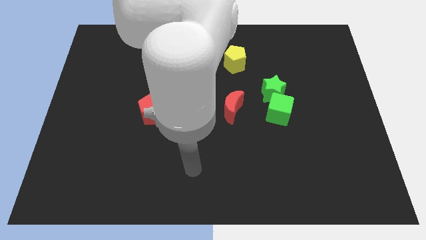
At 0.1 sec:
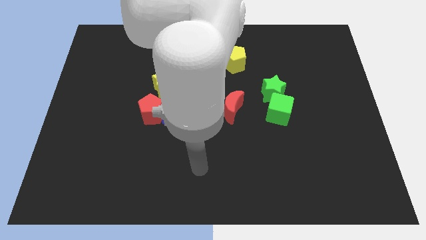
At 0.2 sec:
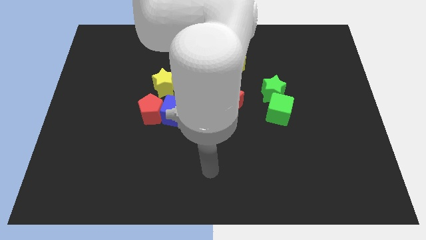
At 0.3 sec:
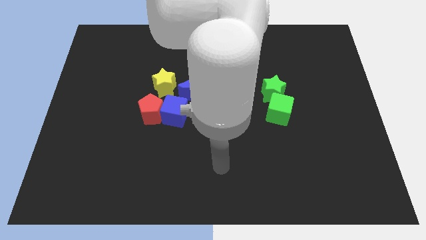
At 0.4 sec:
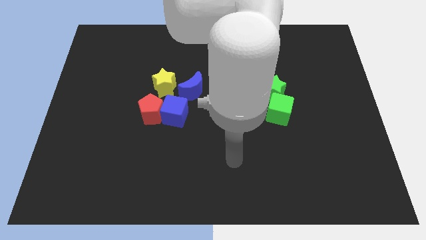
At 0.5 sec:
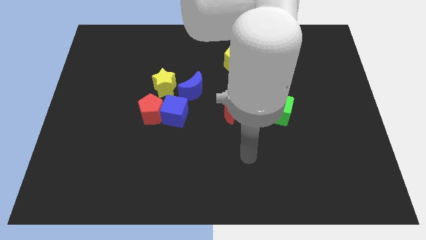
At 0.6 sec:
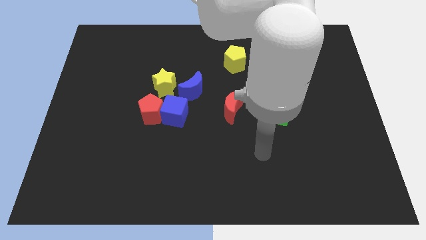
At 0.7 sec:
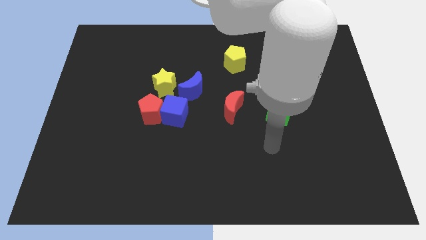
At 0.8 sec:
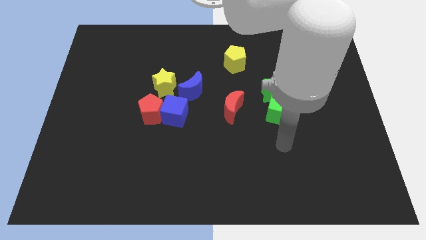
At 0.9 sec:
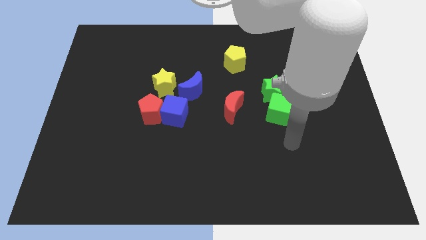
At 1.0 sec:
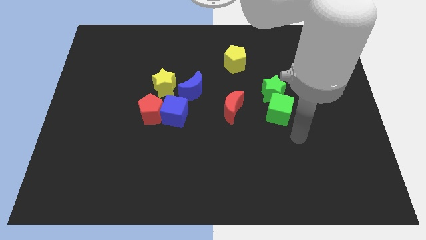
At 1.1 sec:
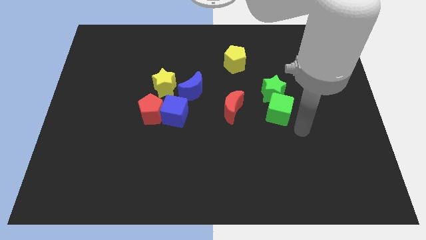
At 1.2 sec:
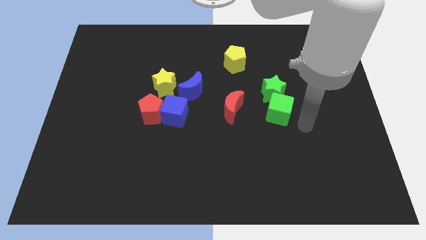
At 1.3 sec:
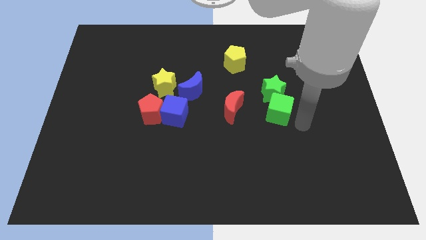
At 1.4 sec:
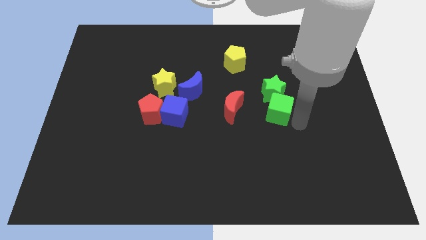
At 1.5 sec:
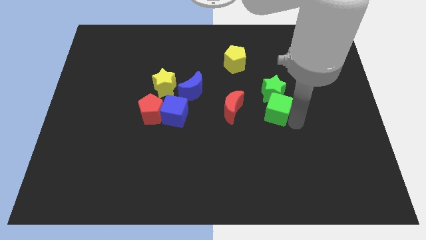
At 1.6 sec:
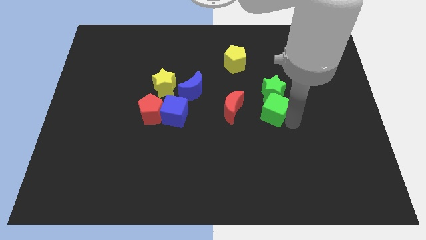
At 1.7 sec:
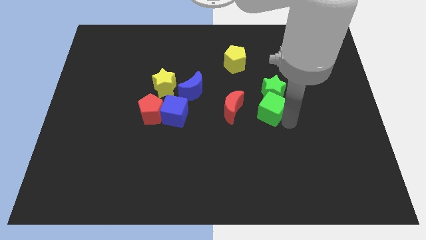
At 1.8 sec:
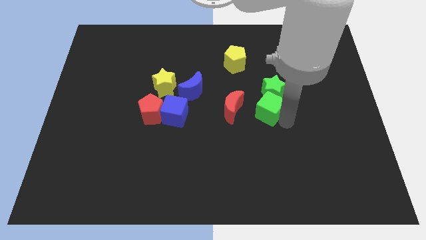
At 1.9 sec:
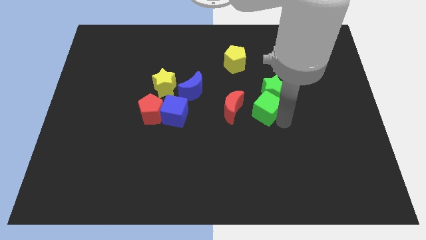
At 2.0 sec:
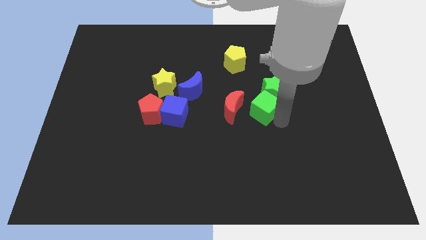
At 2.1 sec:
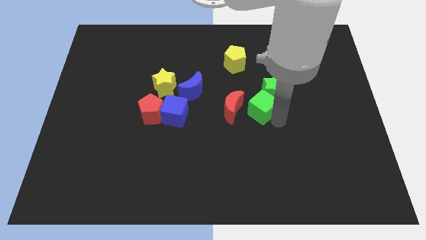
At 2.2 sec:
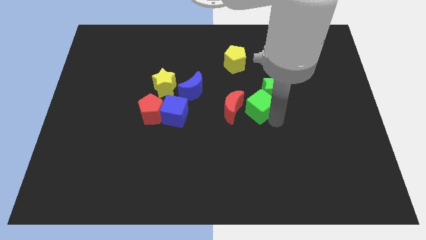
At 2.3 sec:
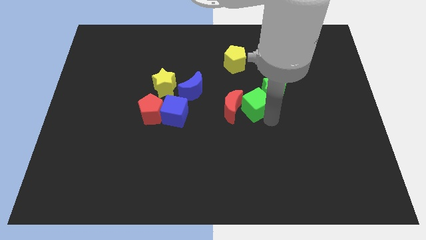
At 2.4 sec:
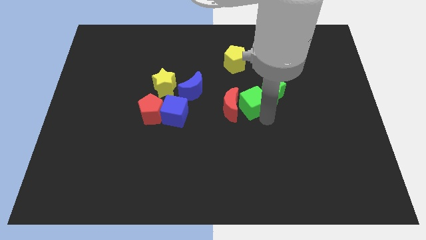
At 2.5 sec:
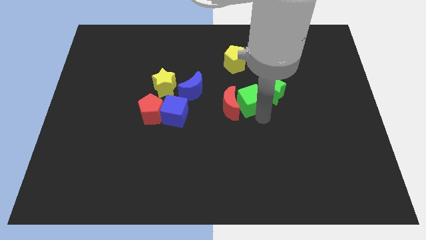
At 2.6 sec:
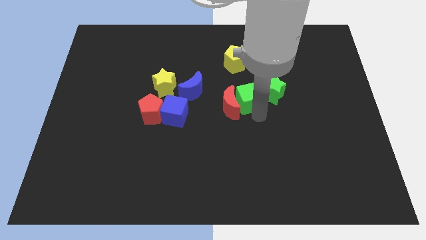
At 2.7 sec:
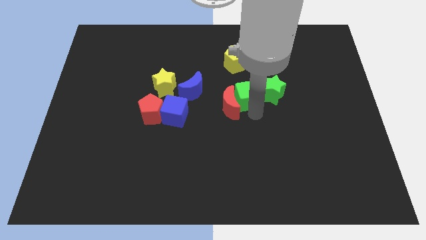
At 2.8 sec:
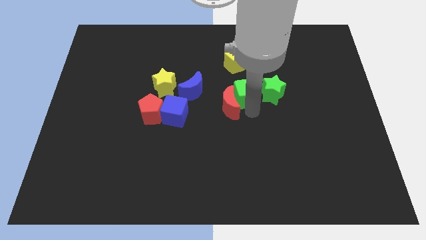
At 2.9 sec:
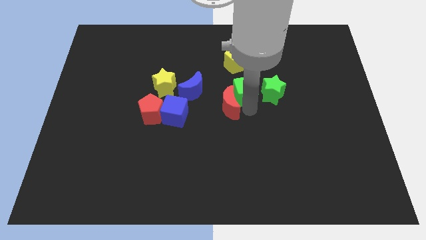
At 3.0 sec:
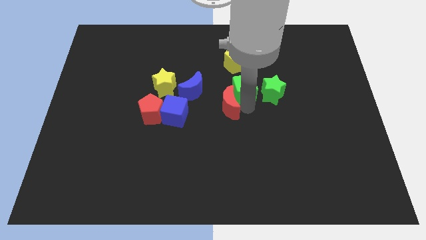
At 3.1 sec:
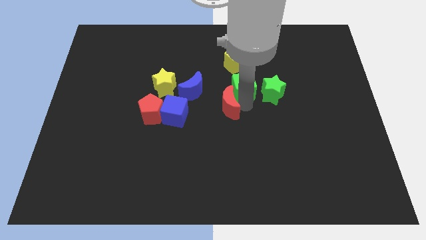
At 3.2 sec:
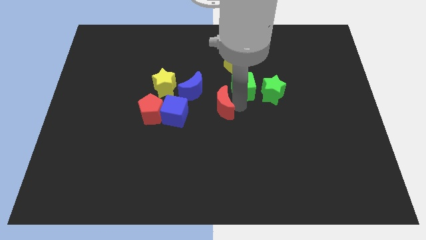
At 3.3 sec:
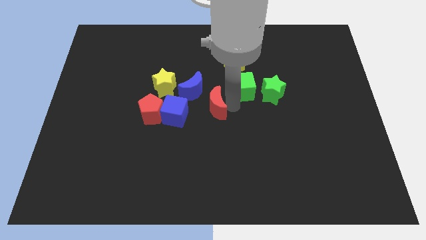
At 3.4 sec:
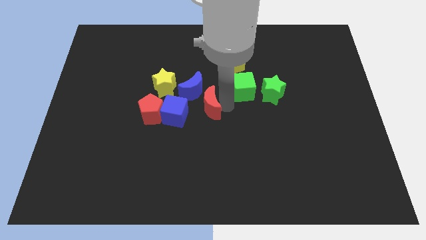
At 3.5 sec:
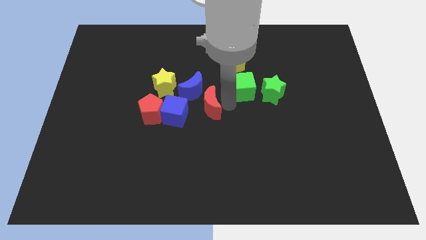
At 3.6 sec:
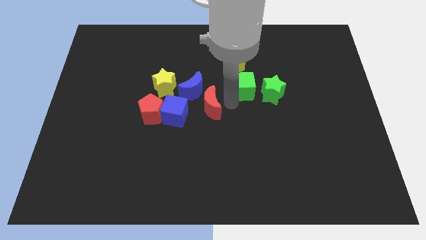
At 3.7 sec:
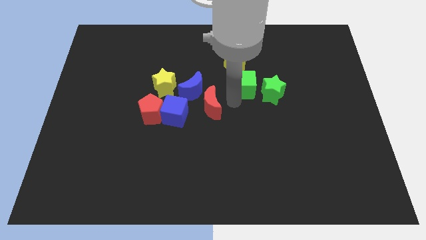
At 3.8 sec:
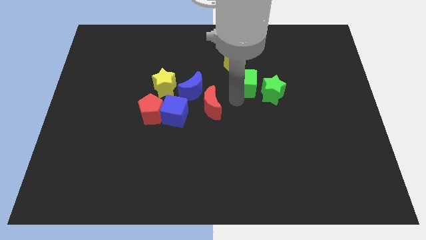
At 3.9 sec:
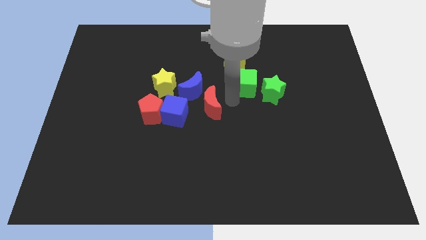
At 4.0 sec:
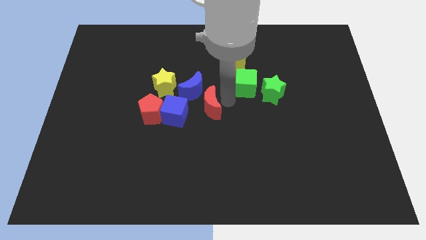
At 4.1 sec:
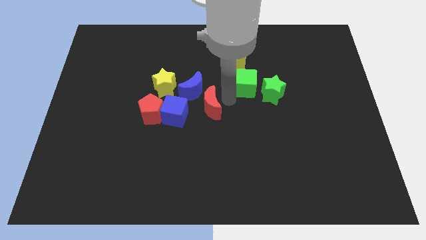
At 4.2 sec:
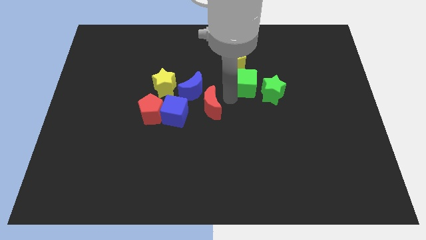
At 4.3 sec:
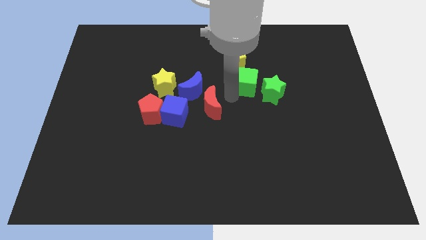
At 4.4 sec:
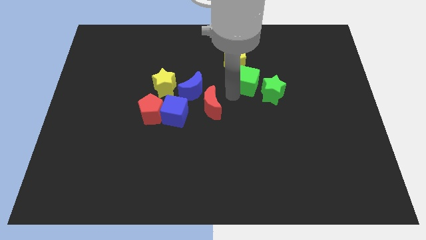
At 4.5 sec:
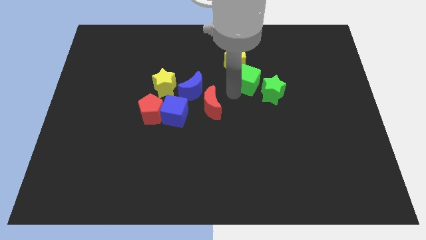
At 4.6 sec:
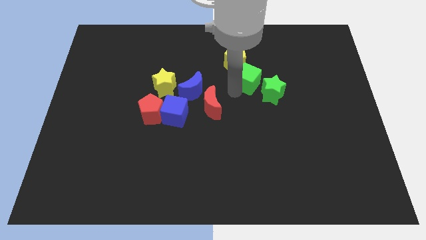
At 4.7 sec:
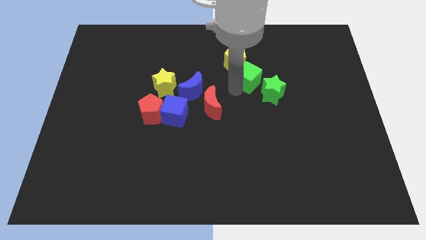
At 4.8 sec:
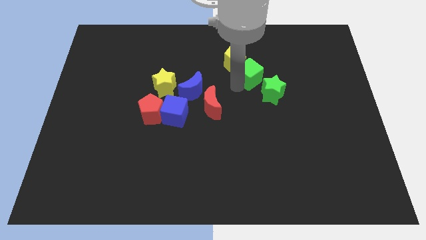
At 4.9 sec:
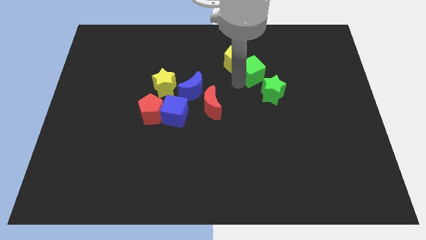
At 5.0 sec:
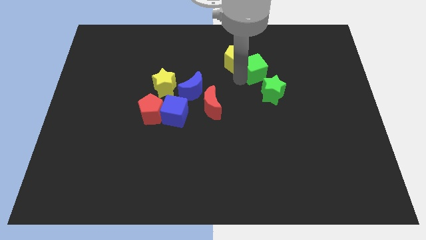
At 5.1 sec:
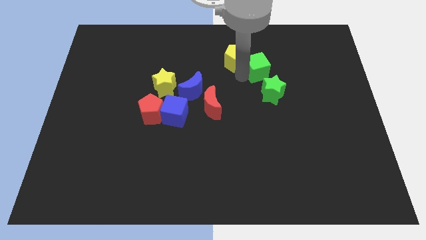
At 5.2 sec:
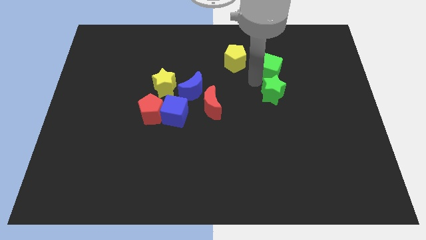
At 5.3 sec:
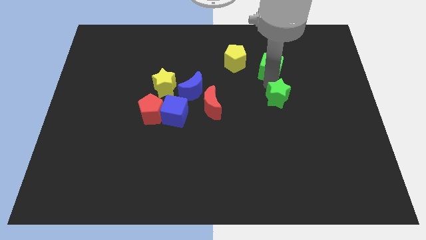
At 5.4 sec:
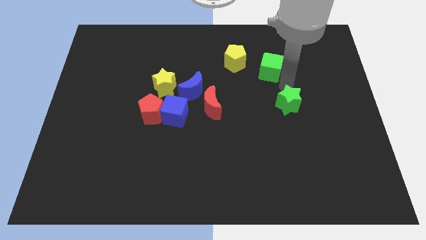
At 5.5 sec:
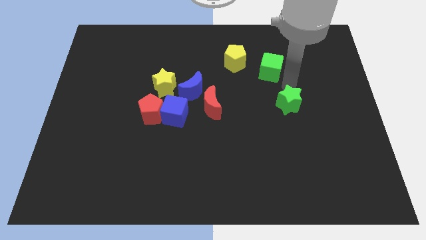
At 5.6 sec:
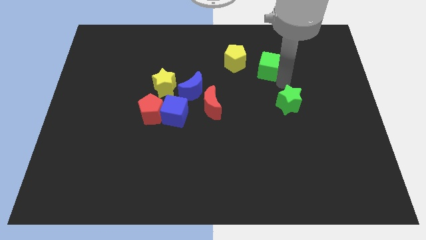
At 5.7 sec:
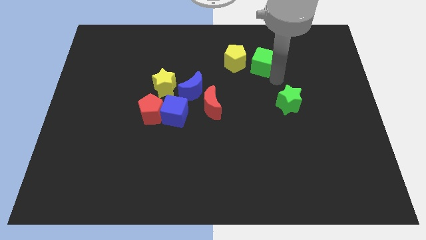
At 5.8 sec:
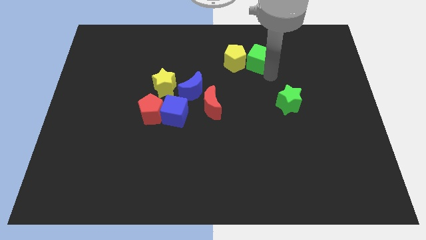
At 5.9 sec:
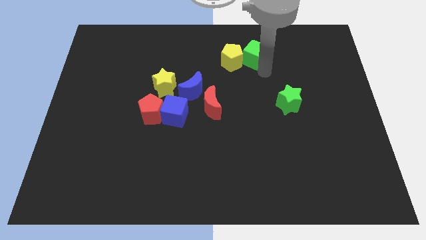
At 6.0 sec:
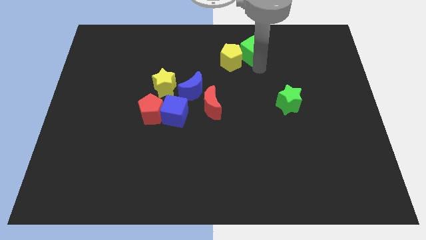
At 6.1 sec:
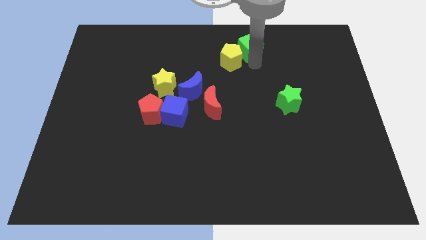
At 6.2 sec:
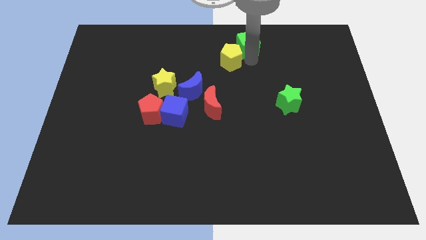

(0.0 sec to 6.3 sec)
put the green cube to the top side

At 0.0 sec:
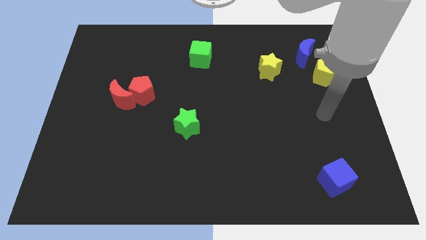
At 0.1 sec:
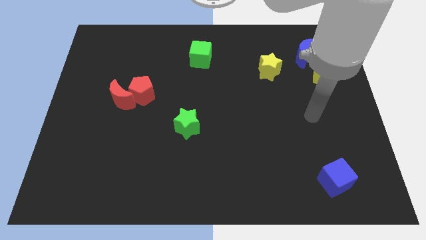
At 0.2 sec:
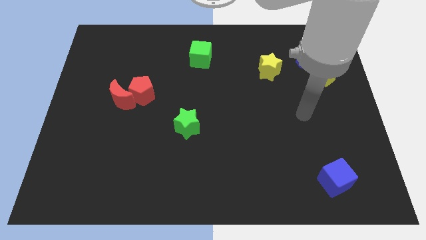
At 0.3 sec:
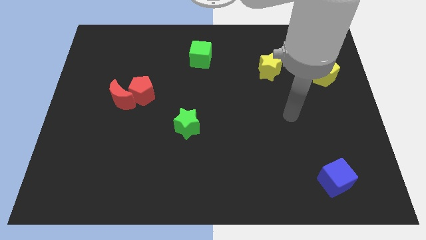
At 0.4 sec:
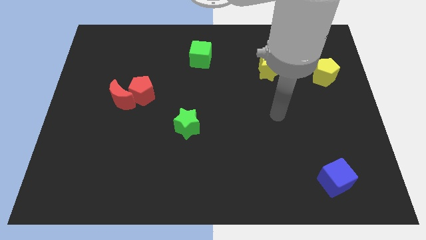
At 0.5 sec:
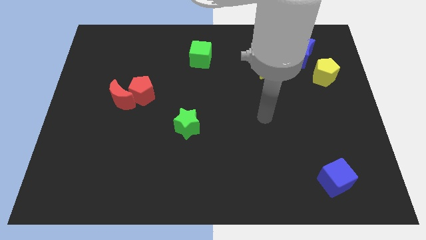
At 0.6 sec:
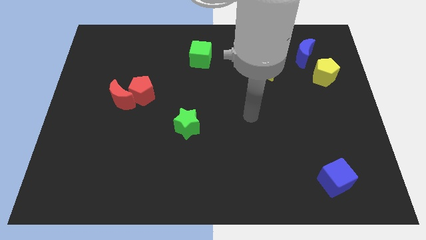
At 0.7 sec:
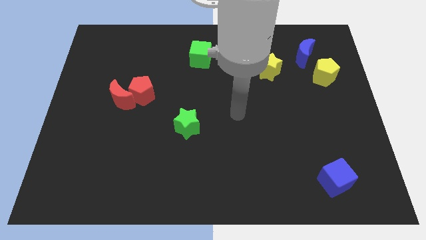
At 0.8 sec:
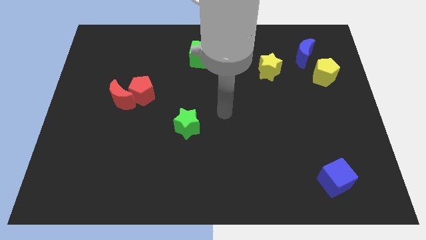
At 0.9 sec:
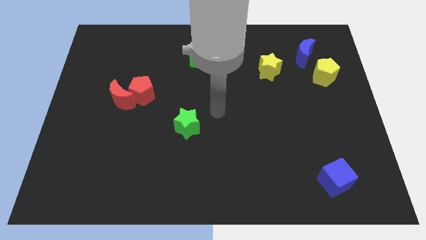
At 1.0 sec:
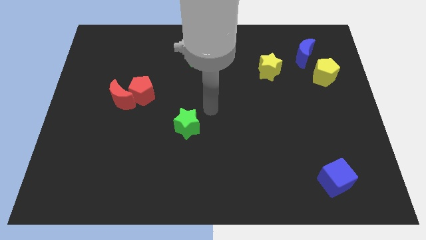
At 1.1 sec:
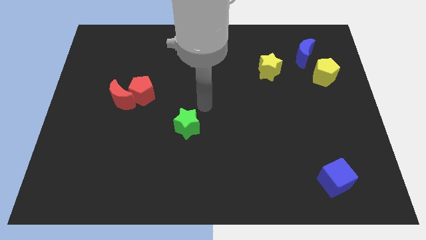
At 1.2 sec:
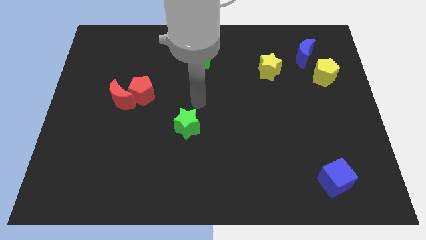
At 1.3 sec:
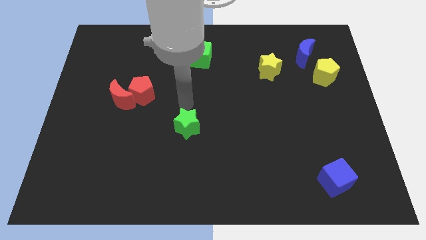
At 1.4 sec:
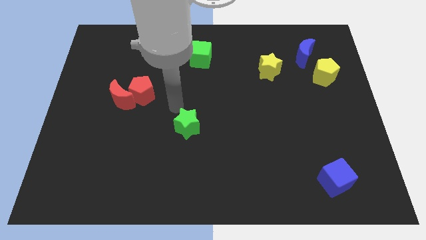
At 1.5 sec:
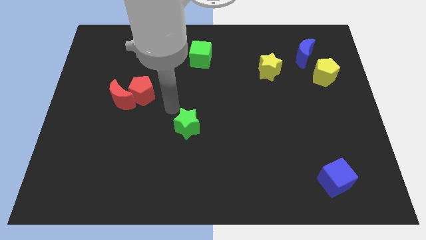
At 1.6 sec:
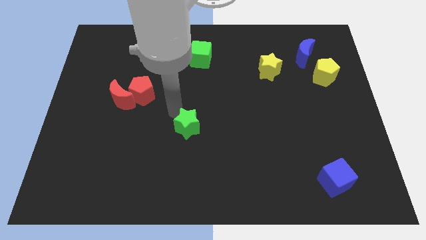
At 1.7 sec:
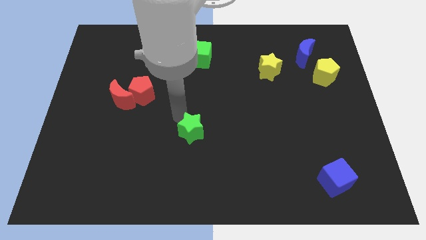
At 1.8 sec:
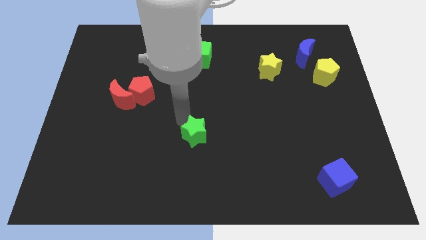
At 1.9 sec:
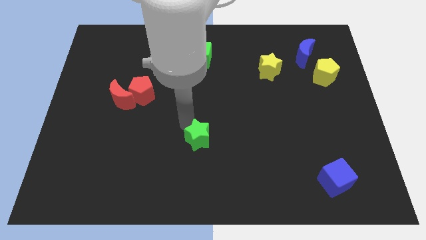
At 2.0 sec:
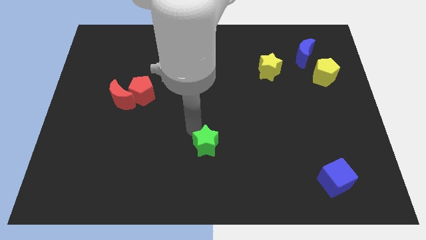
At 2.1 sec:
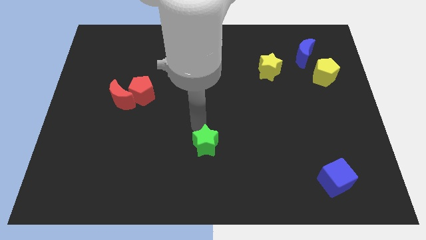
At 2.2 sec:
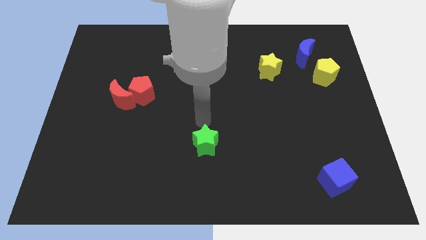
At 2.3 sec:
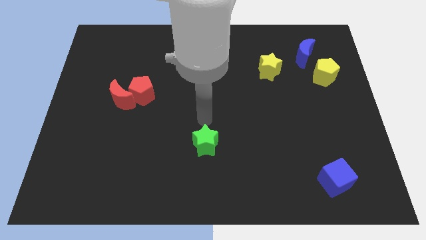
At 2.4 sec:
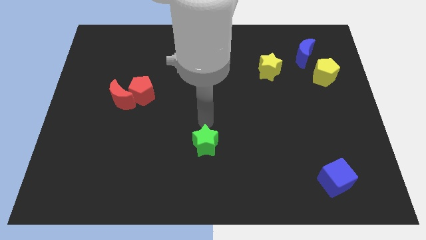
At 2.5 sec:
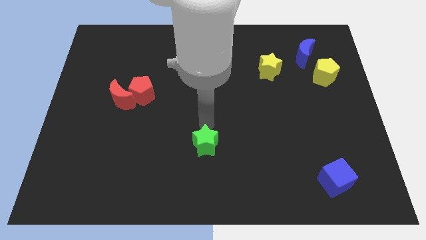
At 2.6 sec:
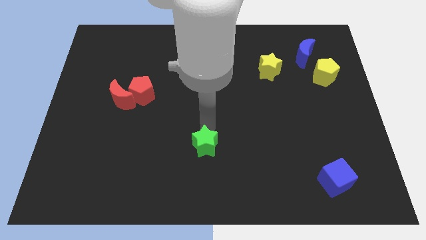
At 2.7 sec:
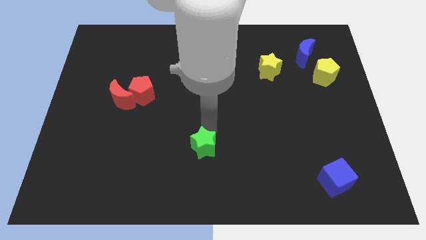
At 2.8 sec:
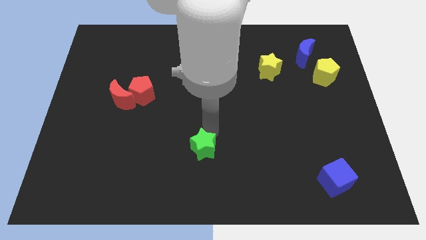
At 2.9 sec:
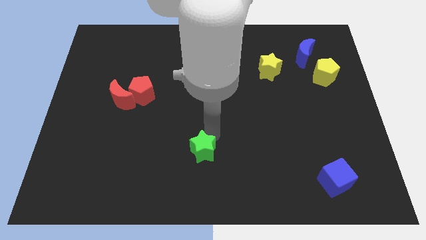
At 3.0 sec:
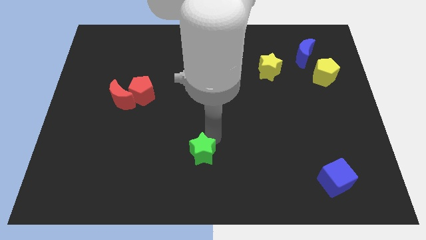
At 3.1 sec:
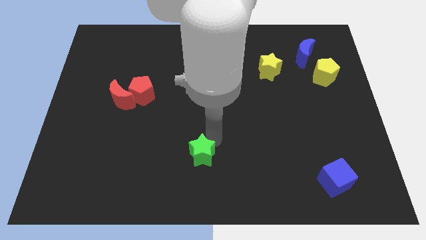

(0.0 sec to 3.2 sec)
slide the green star to the bottom side
